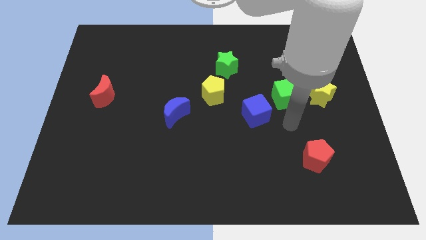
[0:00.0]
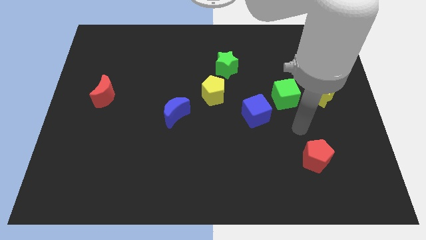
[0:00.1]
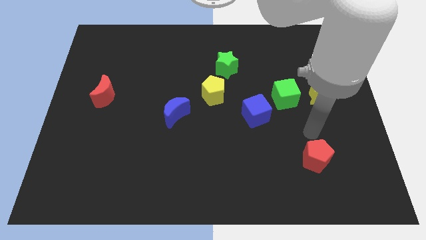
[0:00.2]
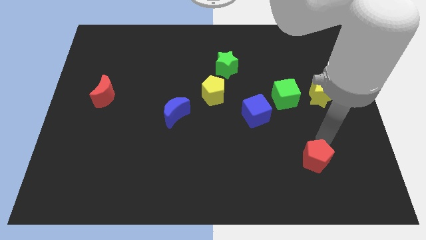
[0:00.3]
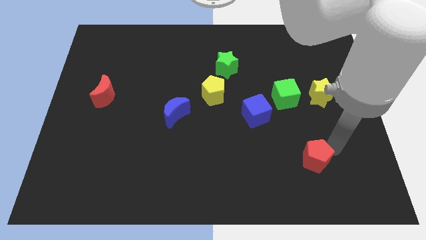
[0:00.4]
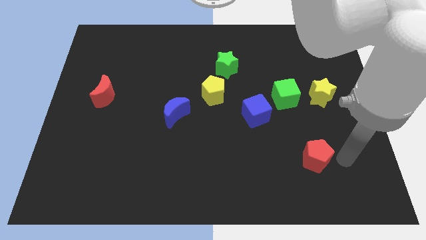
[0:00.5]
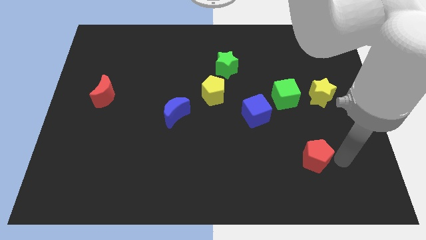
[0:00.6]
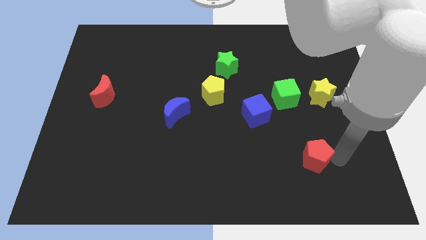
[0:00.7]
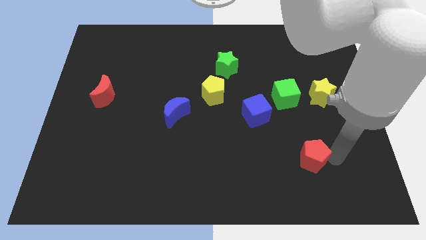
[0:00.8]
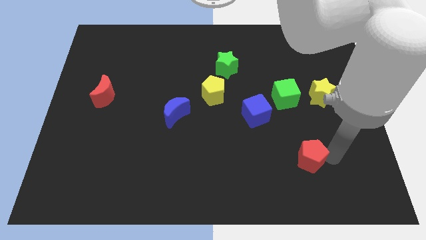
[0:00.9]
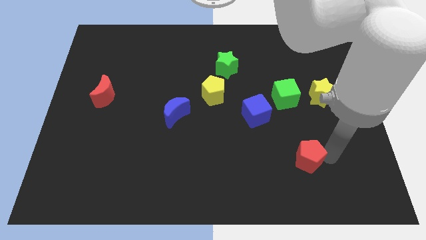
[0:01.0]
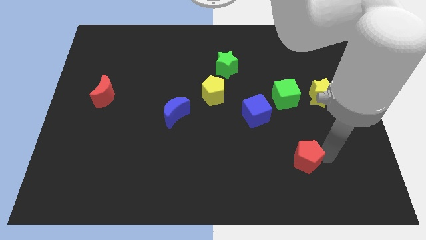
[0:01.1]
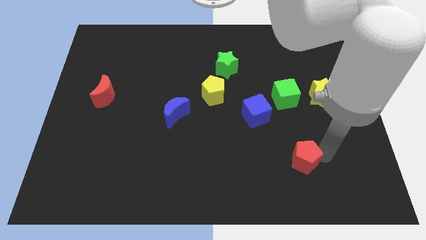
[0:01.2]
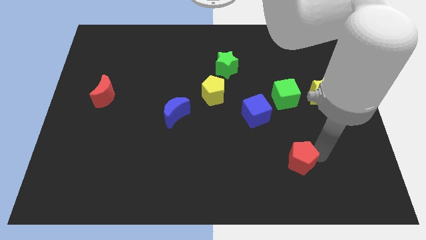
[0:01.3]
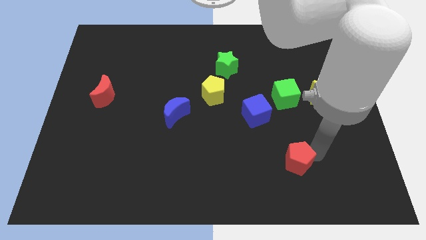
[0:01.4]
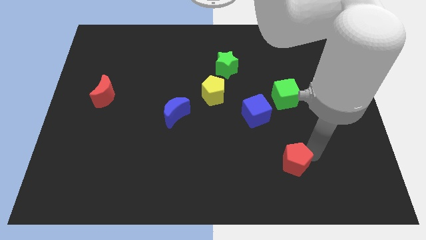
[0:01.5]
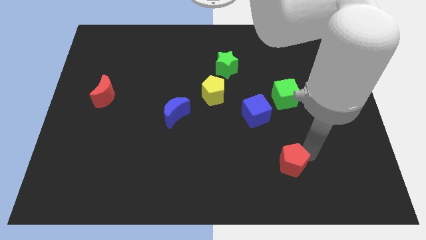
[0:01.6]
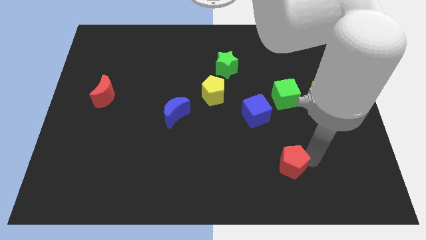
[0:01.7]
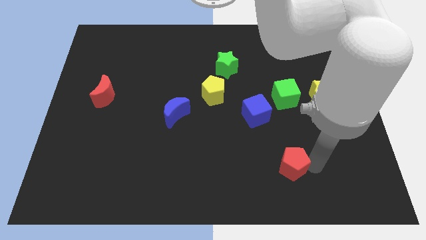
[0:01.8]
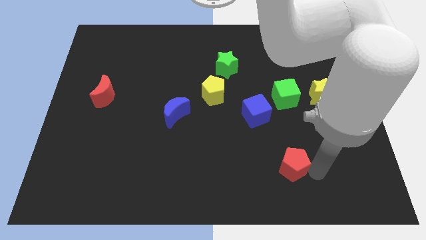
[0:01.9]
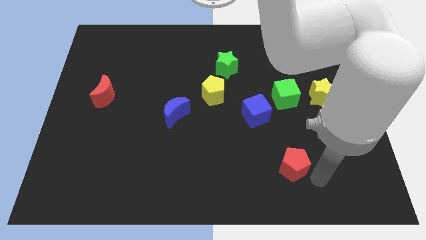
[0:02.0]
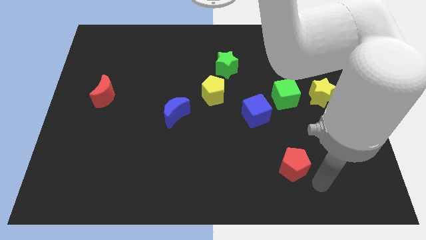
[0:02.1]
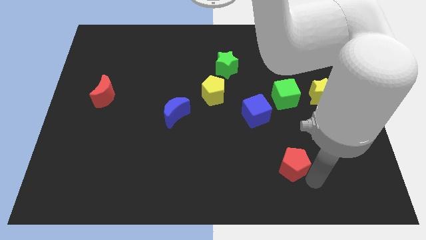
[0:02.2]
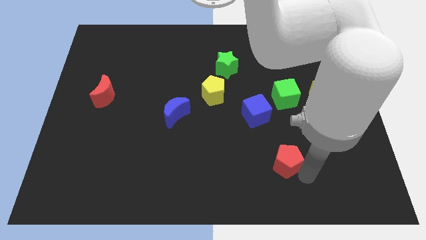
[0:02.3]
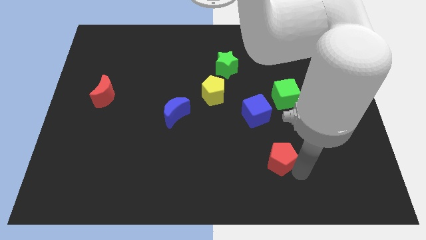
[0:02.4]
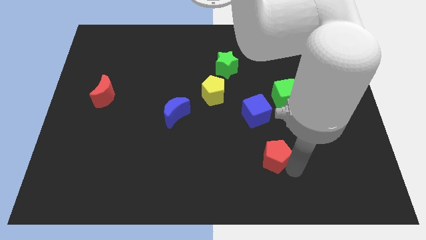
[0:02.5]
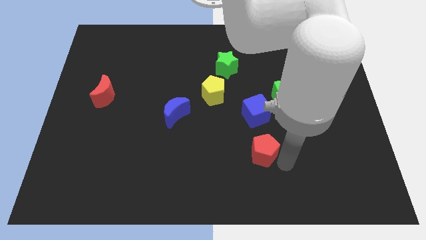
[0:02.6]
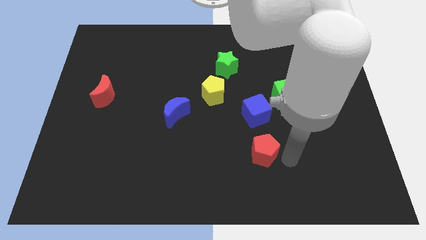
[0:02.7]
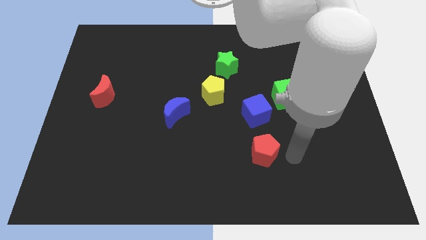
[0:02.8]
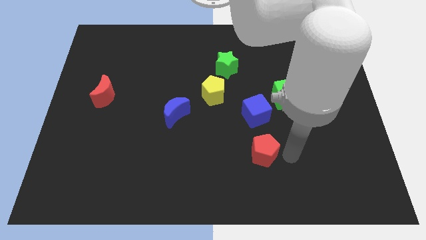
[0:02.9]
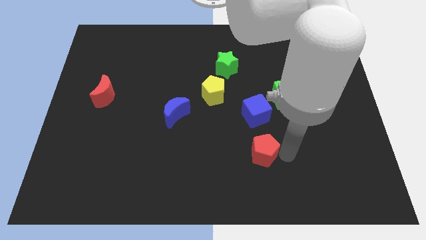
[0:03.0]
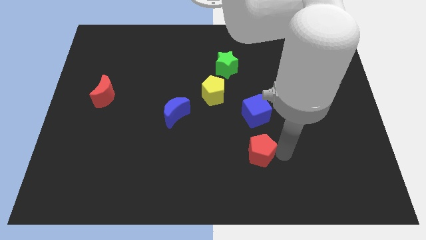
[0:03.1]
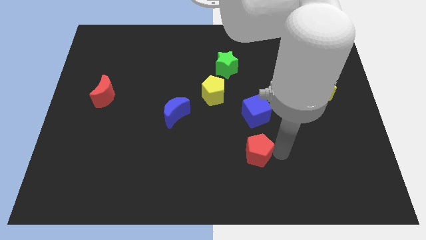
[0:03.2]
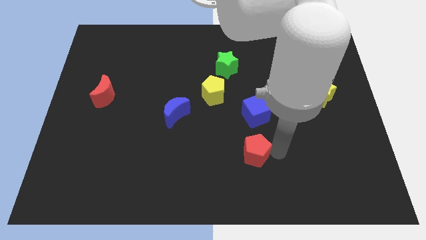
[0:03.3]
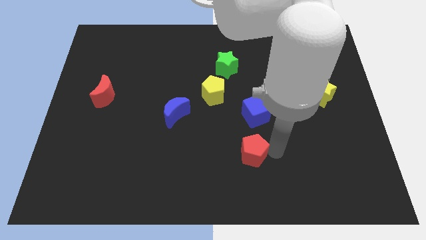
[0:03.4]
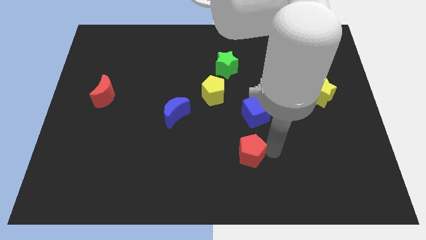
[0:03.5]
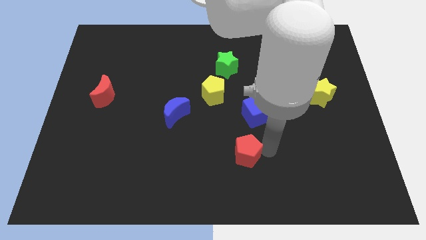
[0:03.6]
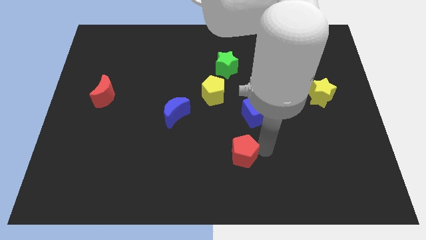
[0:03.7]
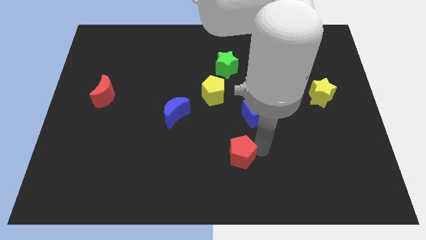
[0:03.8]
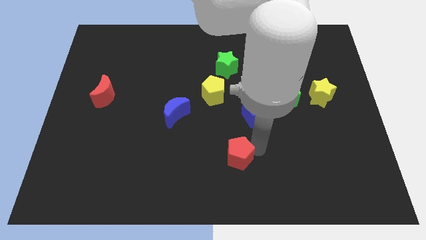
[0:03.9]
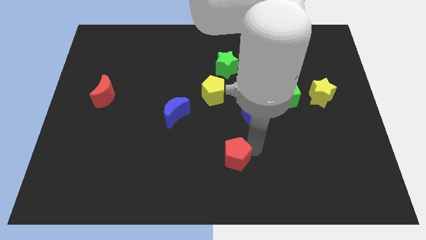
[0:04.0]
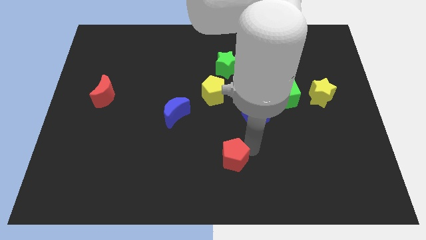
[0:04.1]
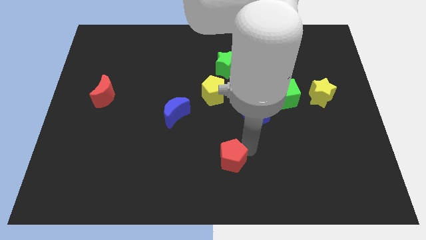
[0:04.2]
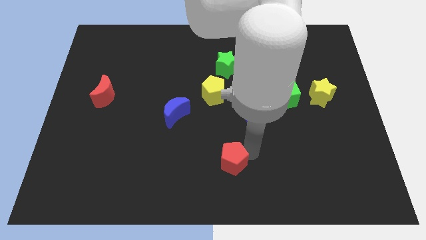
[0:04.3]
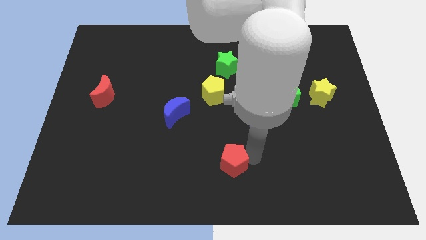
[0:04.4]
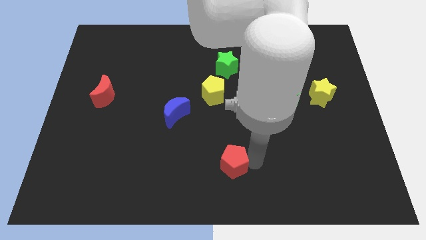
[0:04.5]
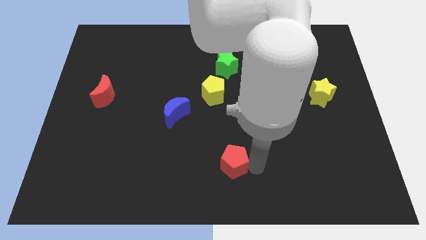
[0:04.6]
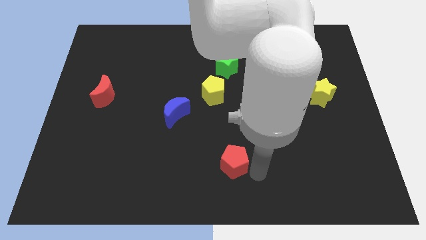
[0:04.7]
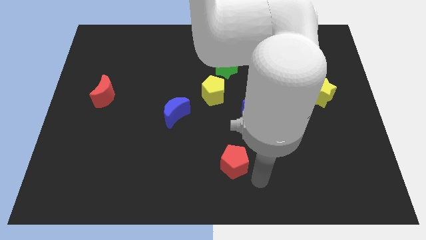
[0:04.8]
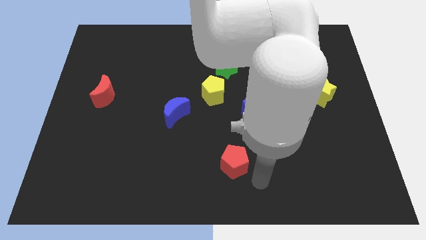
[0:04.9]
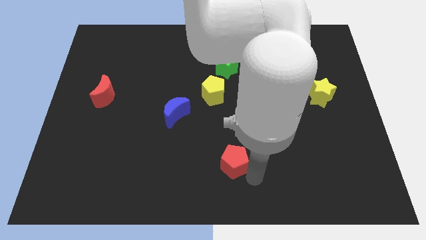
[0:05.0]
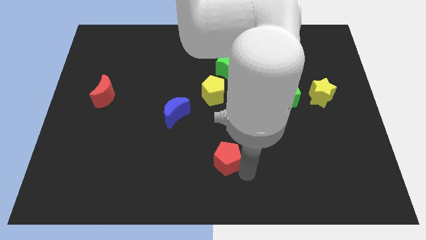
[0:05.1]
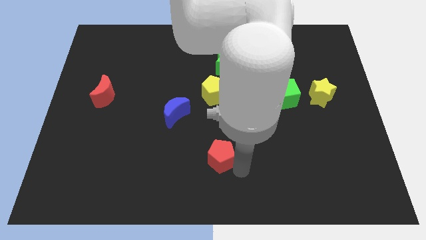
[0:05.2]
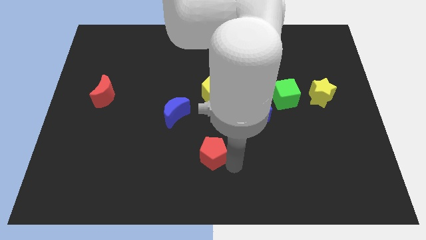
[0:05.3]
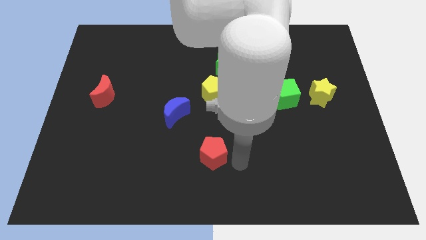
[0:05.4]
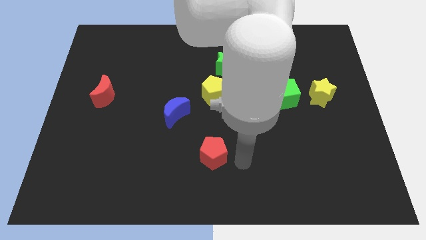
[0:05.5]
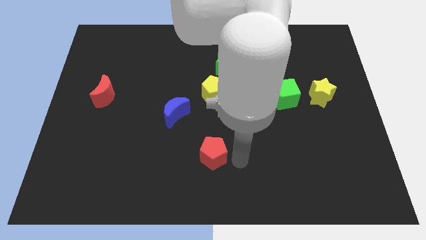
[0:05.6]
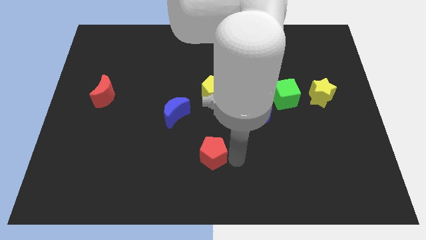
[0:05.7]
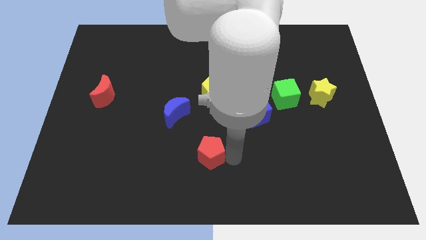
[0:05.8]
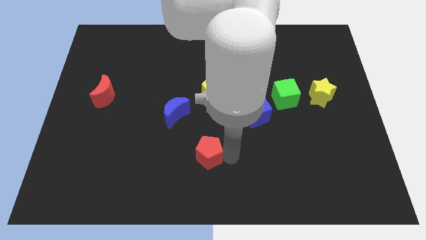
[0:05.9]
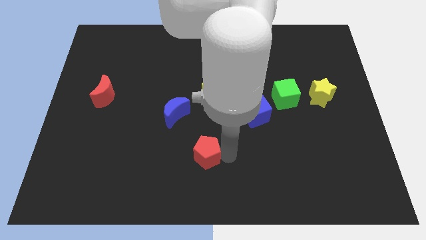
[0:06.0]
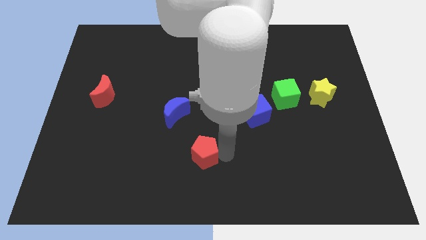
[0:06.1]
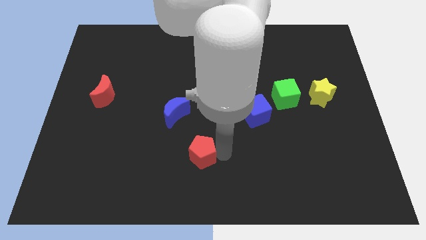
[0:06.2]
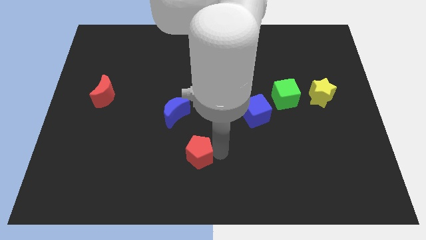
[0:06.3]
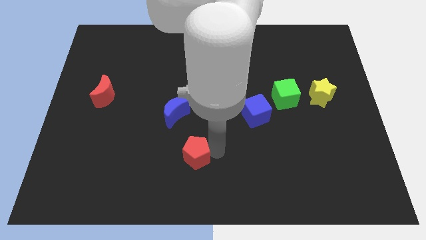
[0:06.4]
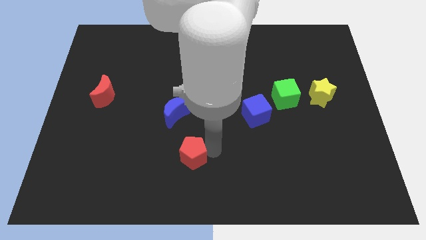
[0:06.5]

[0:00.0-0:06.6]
move the red pentagon to the bottom side of the blue moon

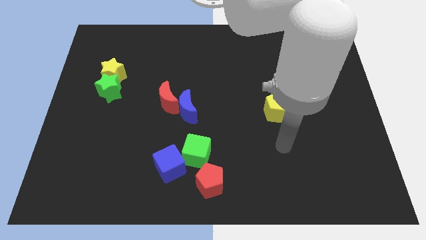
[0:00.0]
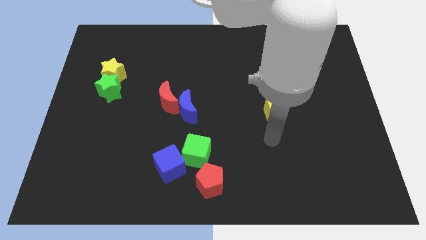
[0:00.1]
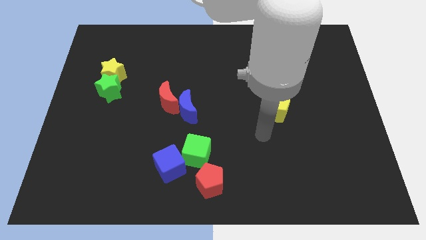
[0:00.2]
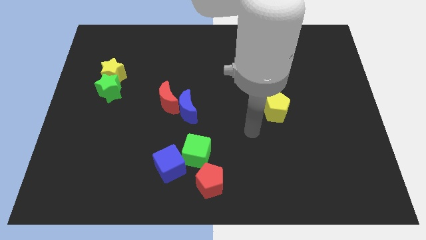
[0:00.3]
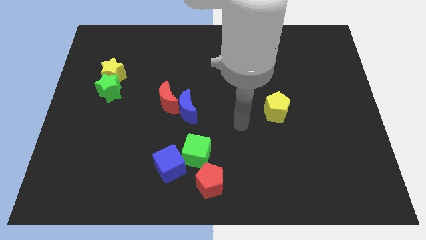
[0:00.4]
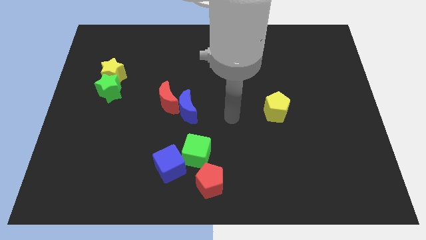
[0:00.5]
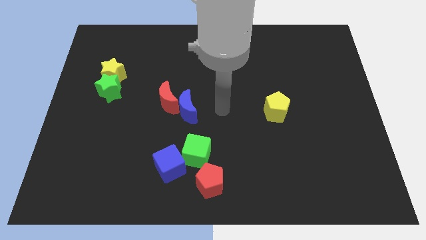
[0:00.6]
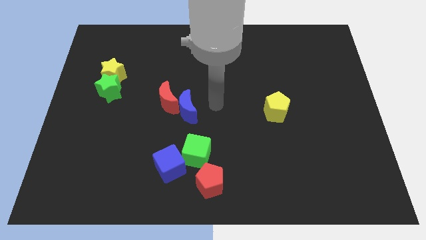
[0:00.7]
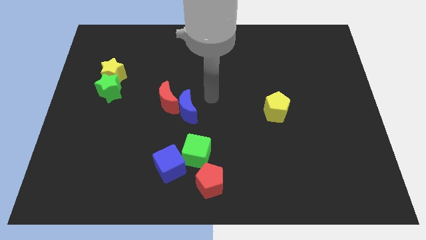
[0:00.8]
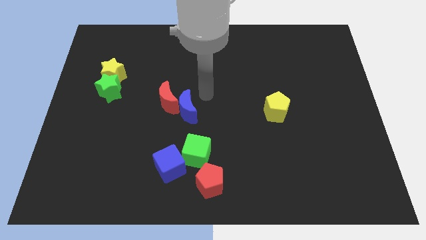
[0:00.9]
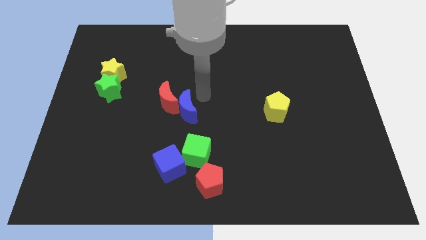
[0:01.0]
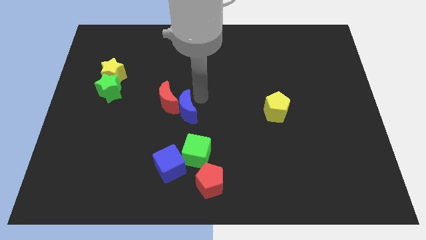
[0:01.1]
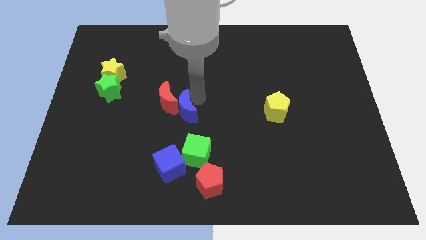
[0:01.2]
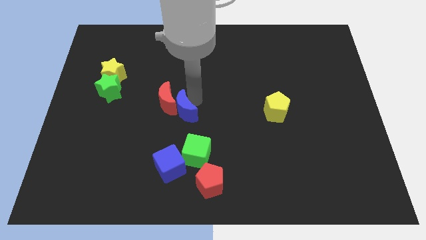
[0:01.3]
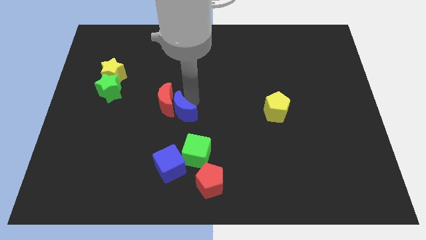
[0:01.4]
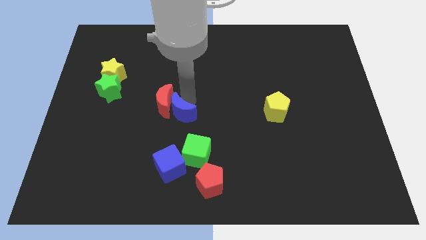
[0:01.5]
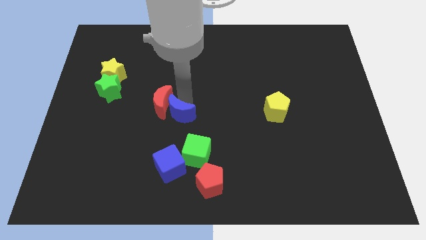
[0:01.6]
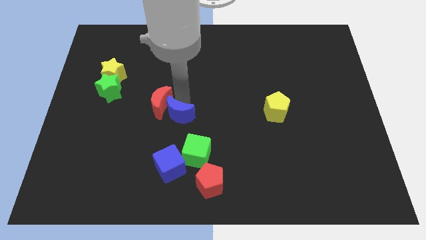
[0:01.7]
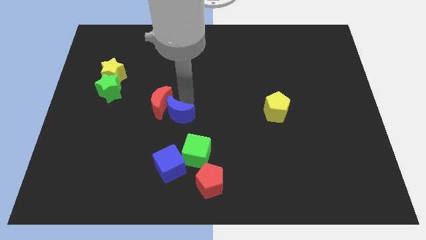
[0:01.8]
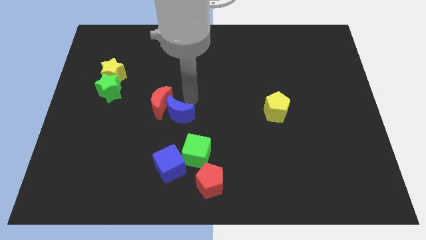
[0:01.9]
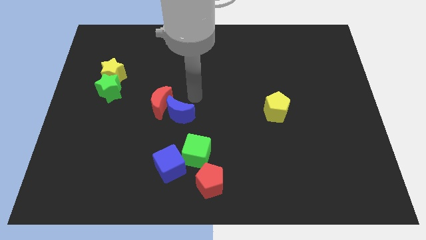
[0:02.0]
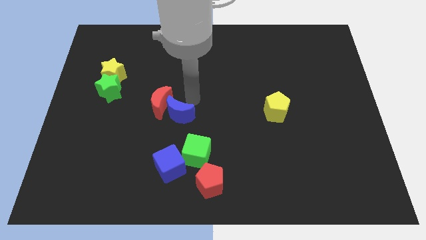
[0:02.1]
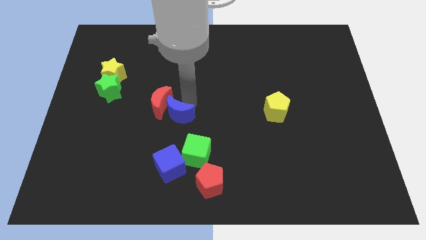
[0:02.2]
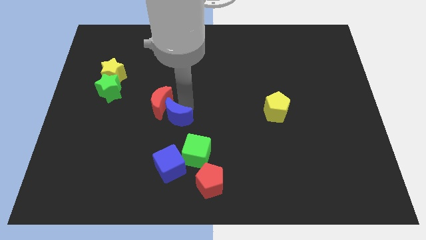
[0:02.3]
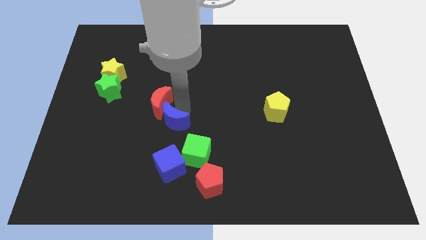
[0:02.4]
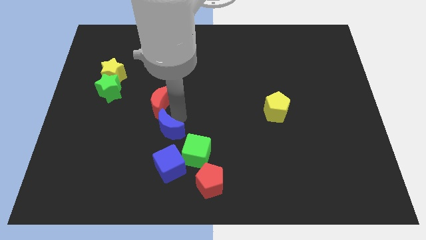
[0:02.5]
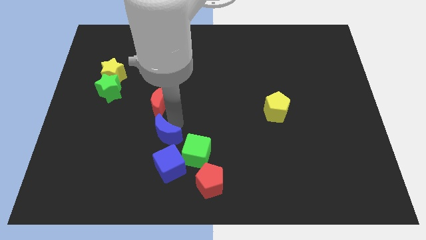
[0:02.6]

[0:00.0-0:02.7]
put the blue moon to the top left side of the blue cube
